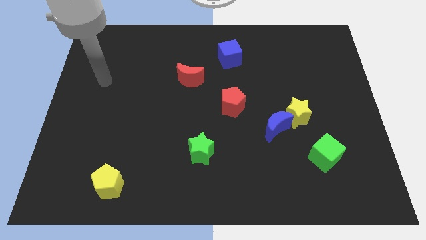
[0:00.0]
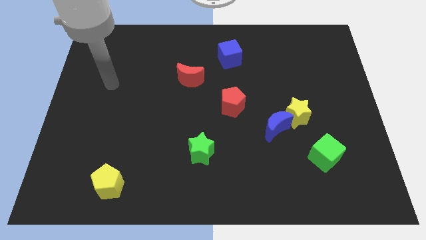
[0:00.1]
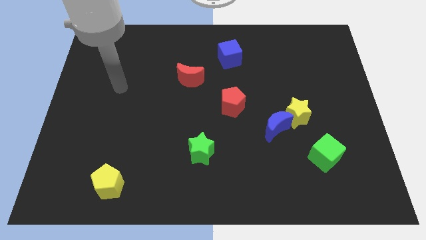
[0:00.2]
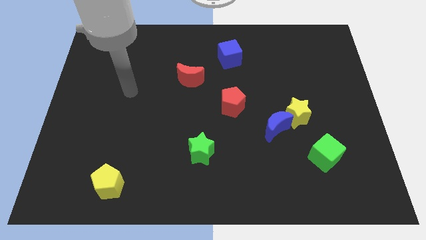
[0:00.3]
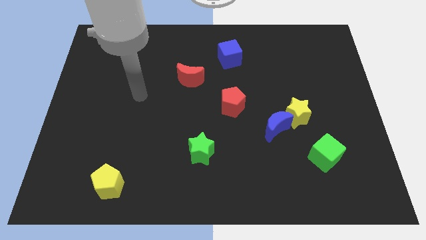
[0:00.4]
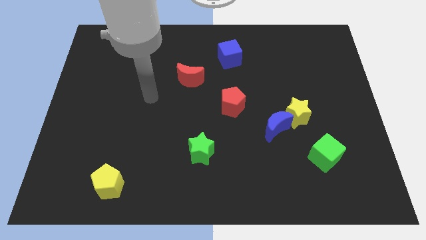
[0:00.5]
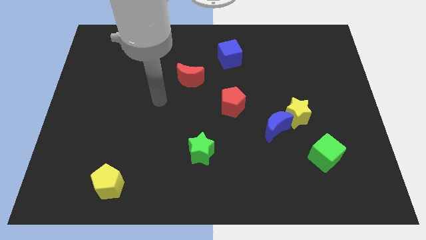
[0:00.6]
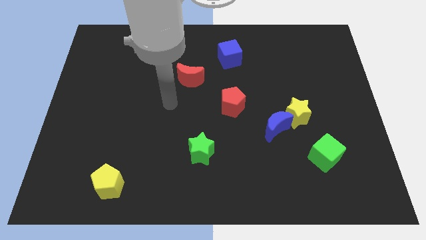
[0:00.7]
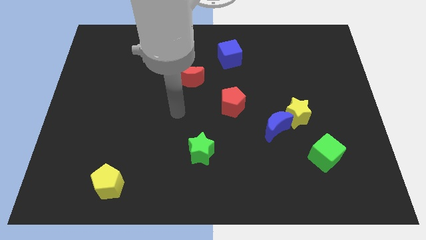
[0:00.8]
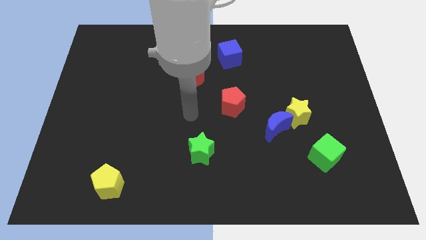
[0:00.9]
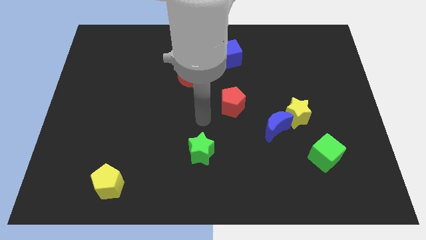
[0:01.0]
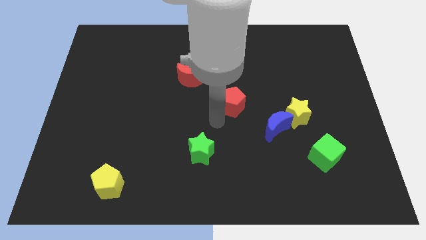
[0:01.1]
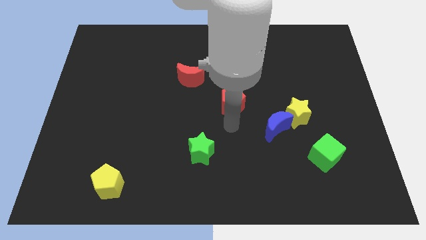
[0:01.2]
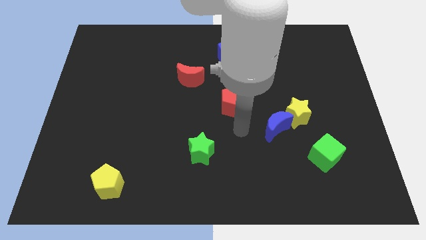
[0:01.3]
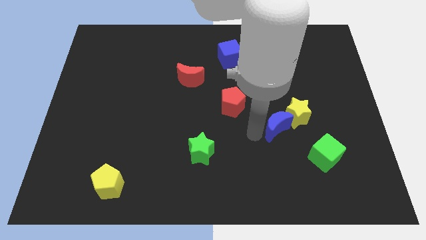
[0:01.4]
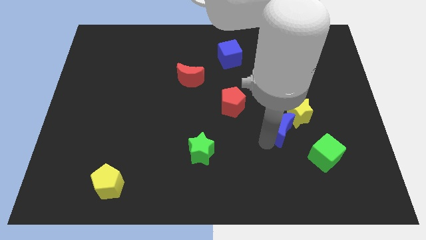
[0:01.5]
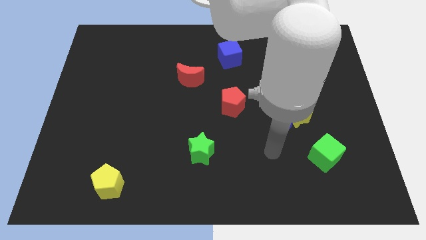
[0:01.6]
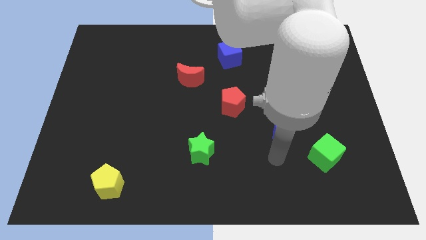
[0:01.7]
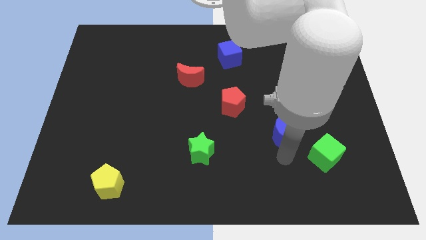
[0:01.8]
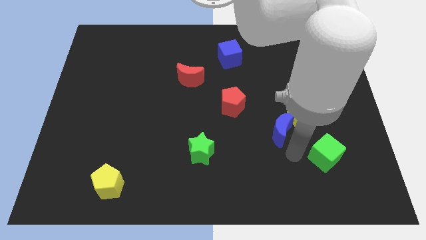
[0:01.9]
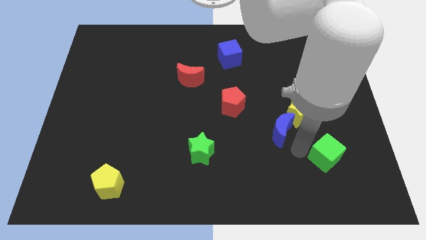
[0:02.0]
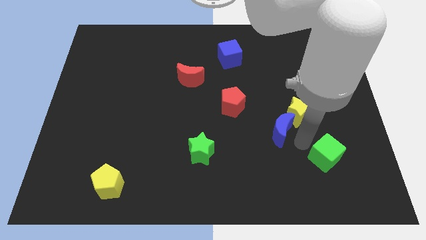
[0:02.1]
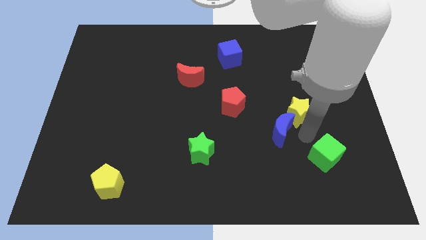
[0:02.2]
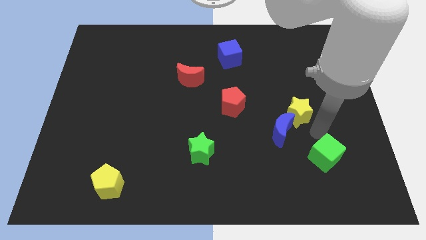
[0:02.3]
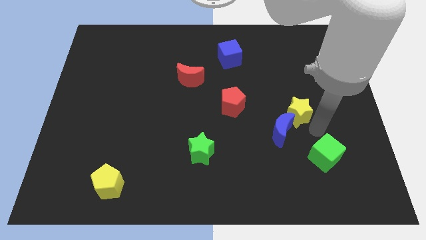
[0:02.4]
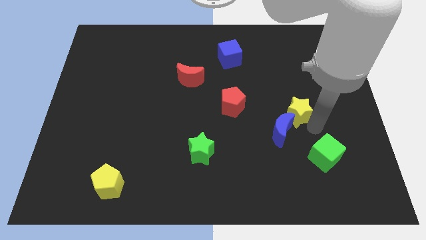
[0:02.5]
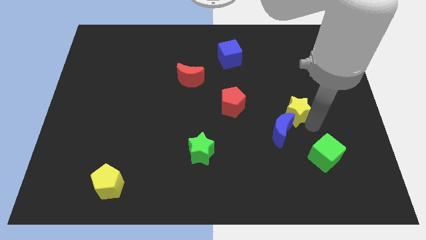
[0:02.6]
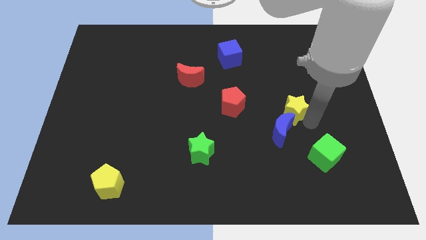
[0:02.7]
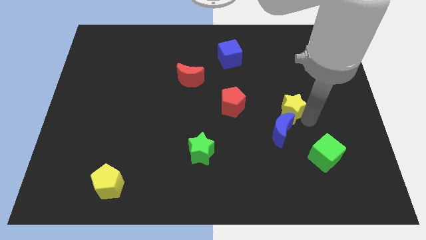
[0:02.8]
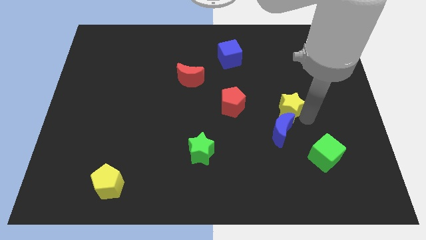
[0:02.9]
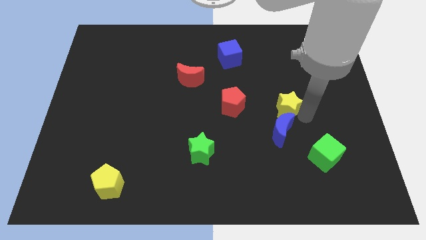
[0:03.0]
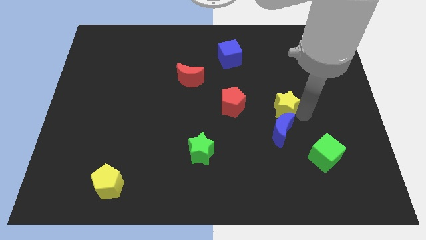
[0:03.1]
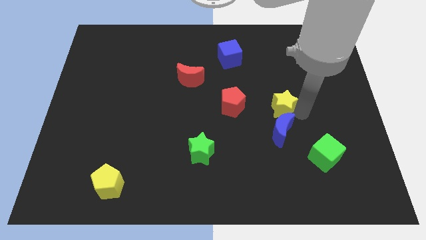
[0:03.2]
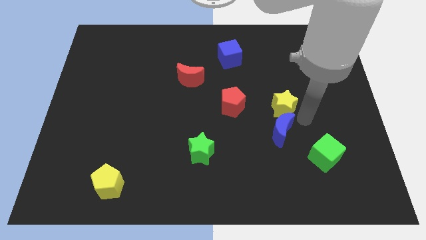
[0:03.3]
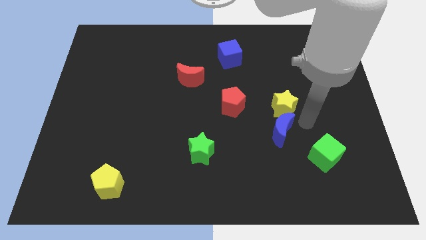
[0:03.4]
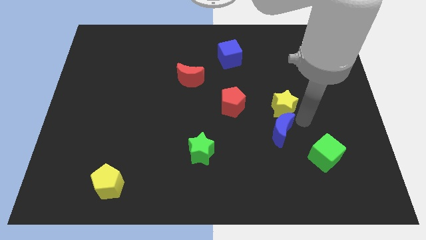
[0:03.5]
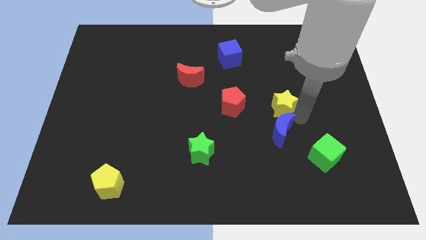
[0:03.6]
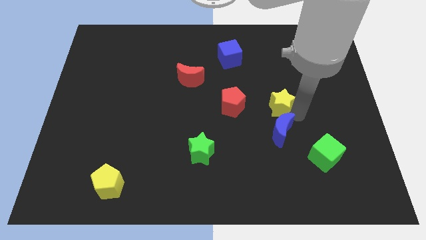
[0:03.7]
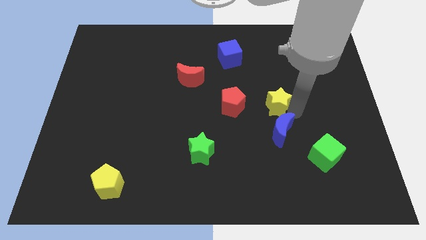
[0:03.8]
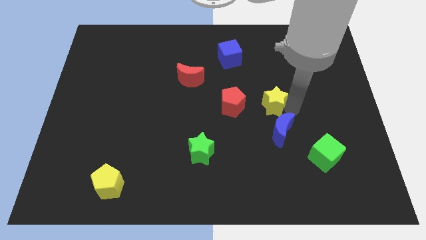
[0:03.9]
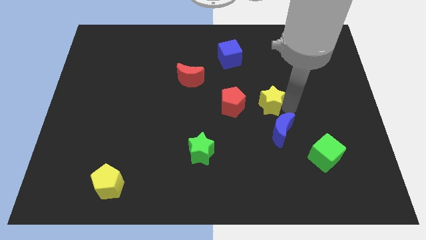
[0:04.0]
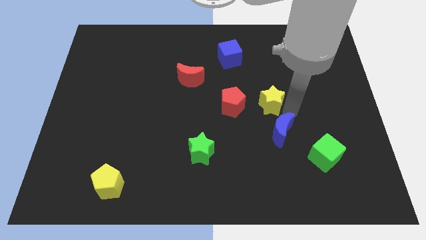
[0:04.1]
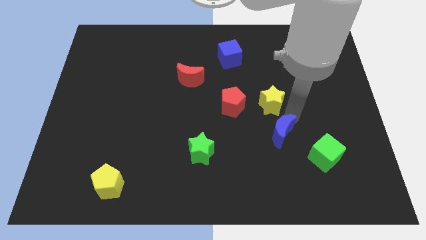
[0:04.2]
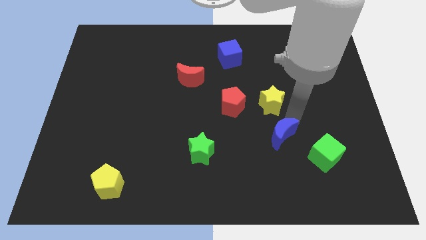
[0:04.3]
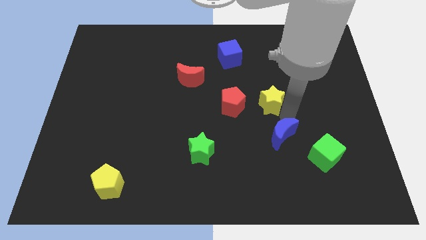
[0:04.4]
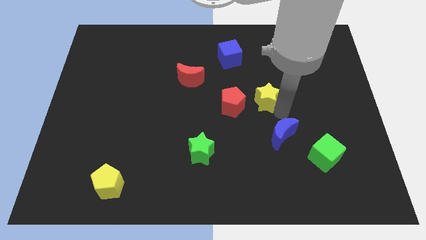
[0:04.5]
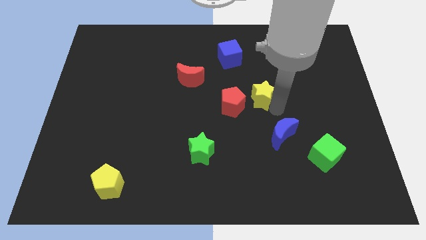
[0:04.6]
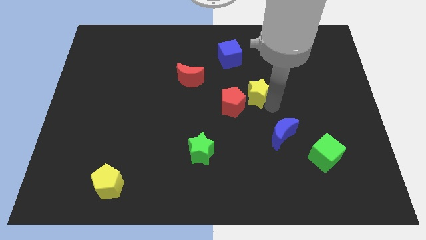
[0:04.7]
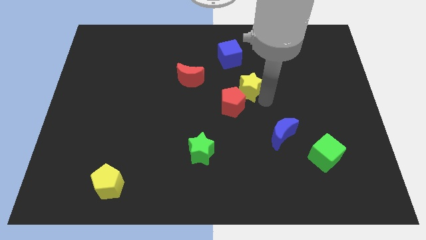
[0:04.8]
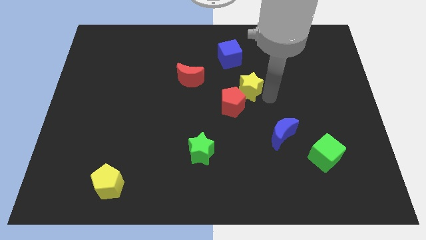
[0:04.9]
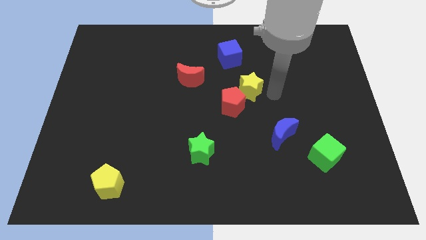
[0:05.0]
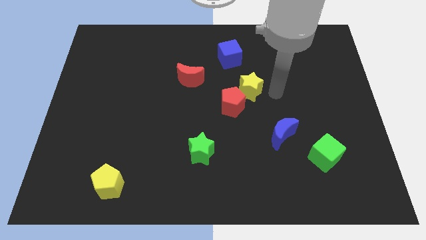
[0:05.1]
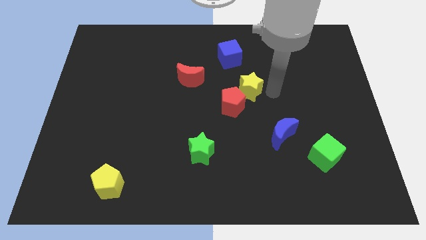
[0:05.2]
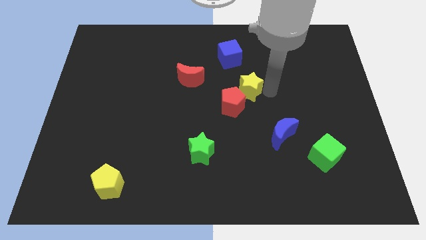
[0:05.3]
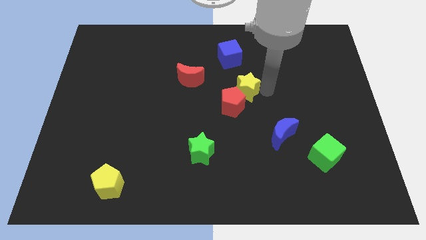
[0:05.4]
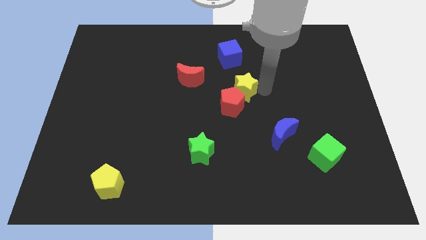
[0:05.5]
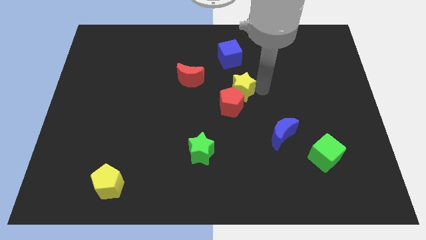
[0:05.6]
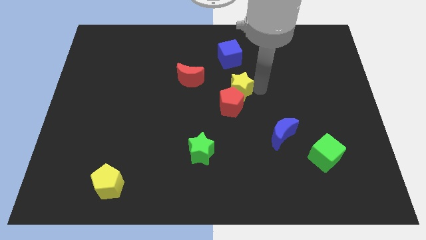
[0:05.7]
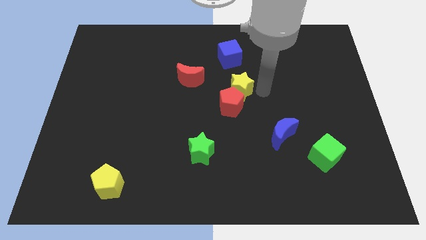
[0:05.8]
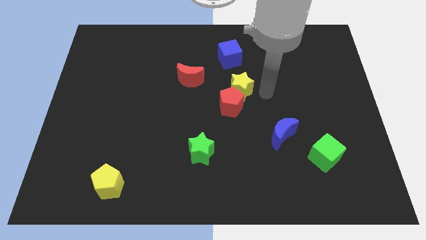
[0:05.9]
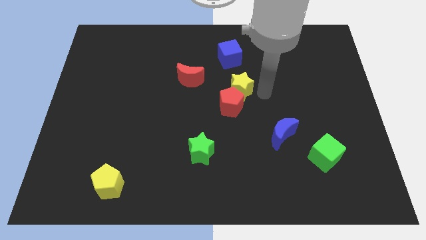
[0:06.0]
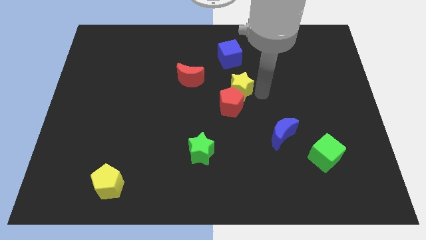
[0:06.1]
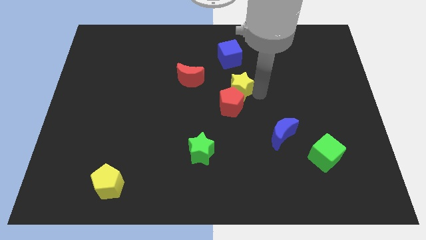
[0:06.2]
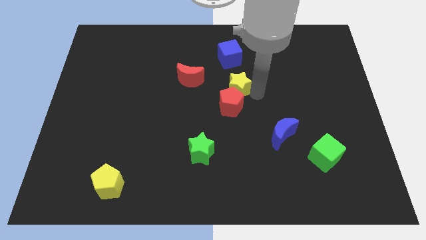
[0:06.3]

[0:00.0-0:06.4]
put the yellow star diagonally up and to the left of the red pentagon

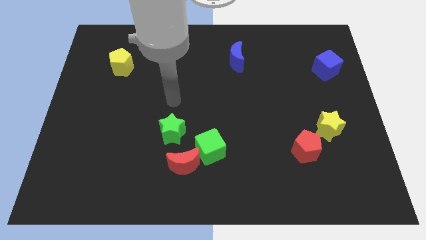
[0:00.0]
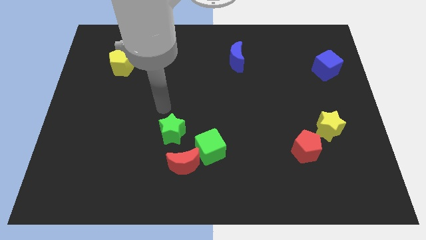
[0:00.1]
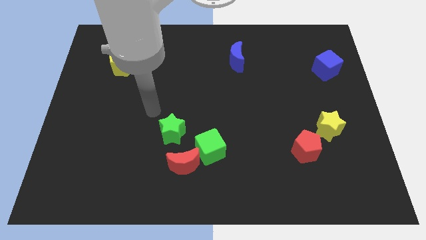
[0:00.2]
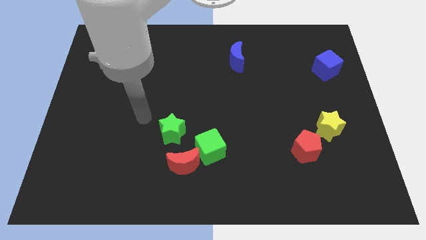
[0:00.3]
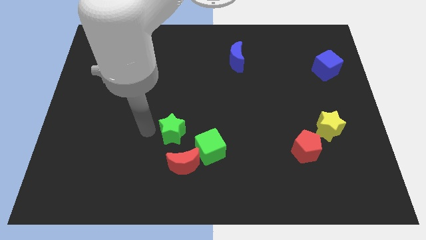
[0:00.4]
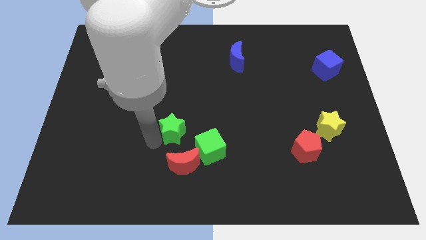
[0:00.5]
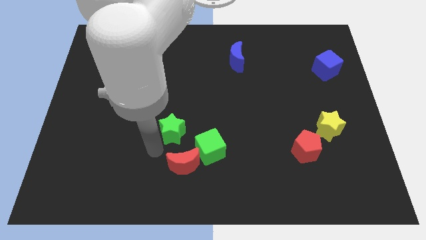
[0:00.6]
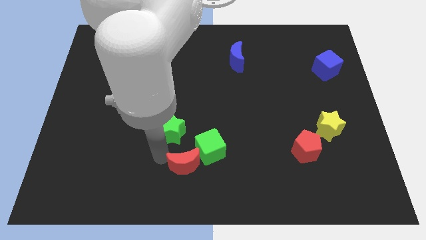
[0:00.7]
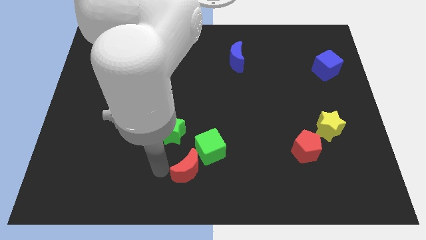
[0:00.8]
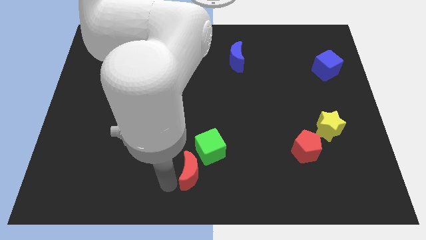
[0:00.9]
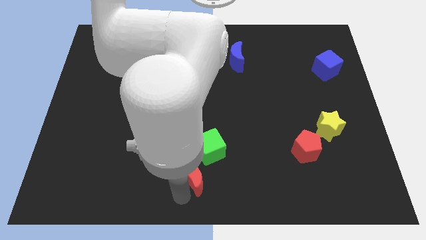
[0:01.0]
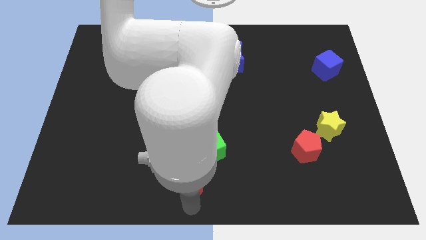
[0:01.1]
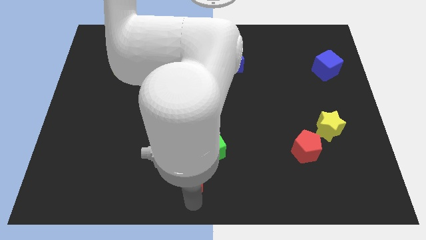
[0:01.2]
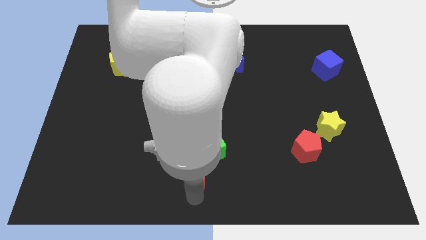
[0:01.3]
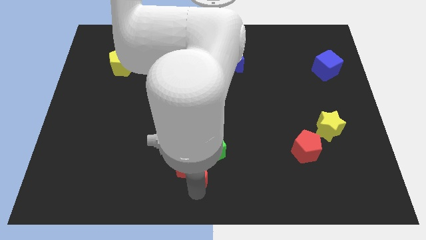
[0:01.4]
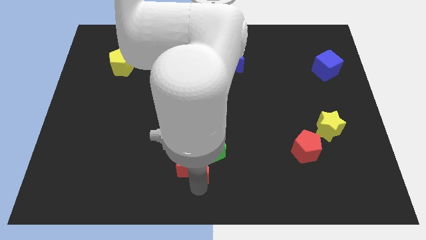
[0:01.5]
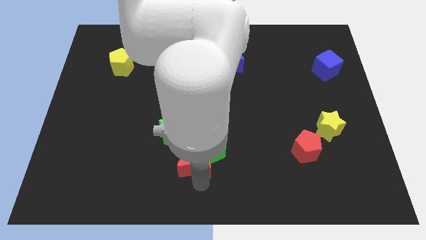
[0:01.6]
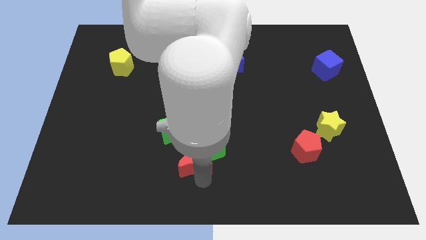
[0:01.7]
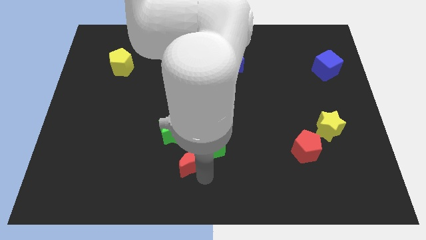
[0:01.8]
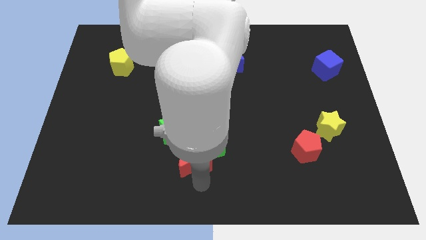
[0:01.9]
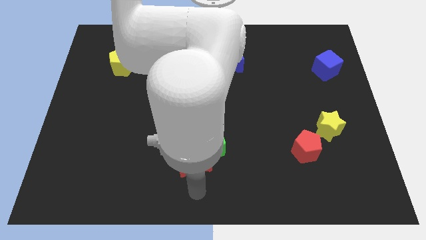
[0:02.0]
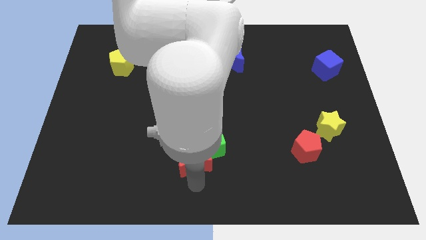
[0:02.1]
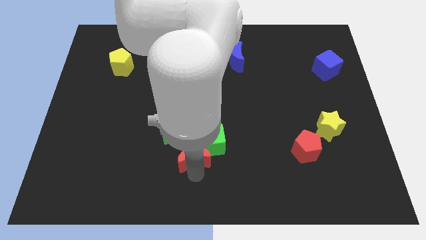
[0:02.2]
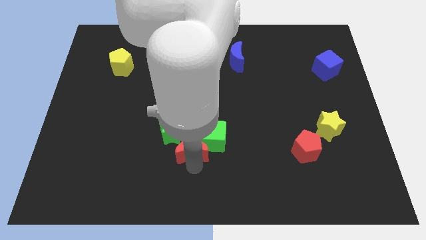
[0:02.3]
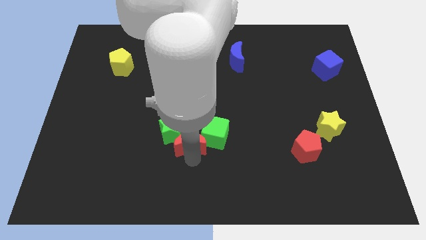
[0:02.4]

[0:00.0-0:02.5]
slide the red moon to the right side of the green star
